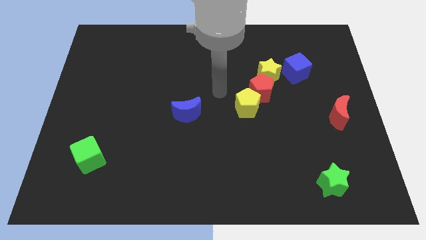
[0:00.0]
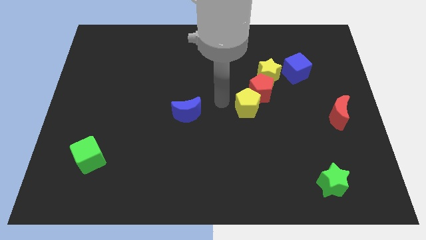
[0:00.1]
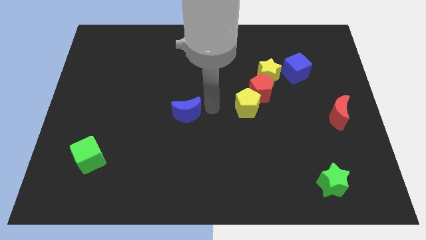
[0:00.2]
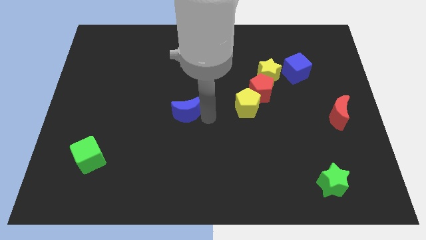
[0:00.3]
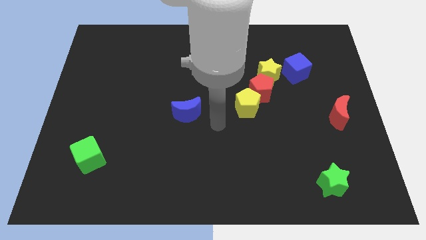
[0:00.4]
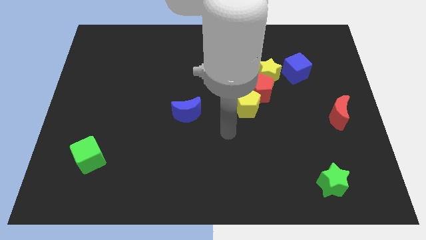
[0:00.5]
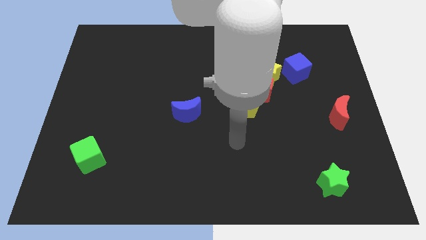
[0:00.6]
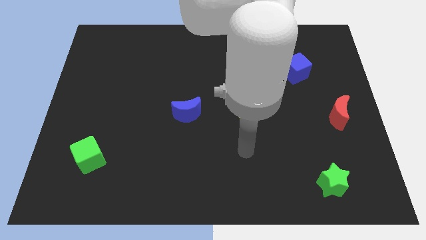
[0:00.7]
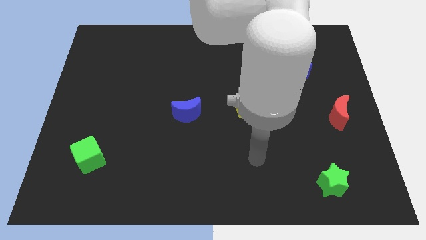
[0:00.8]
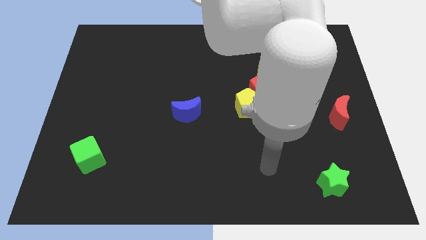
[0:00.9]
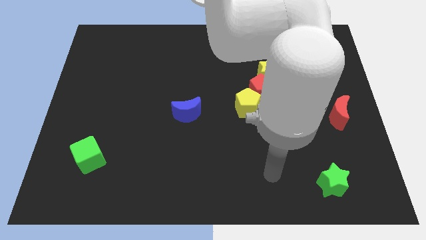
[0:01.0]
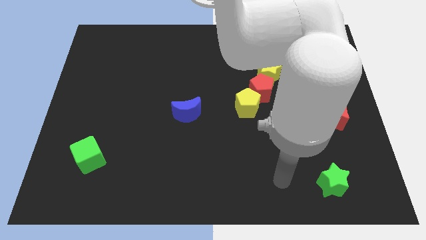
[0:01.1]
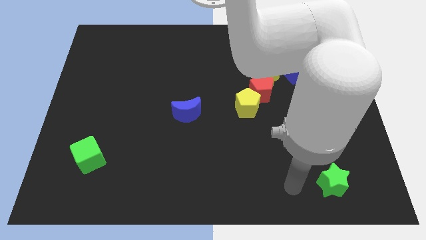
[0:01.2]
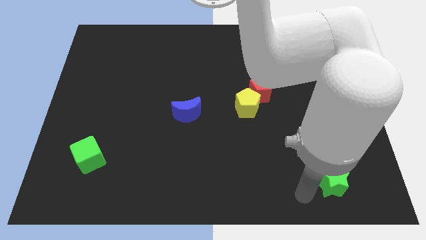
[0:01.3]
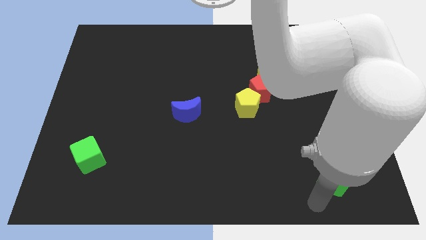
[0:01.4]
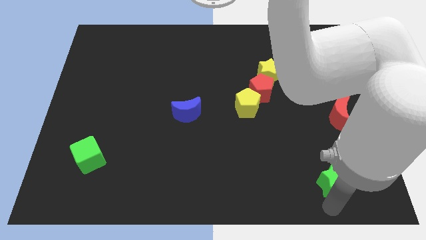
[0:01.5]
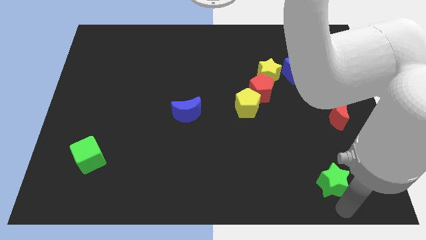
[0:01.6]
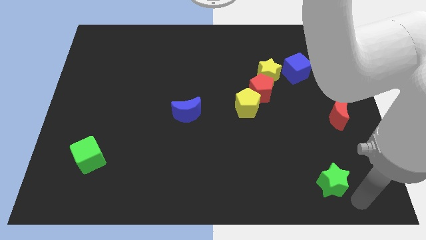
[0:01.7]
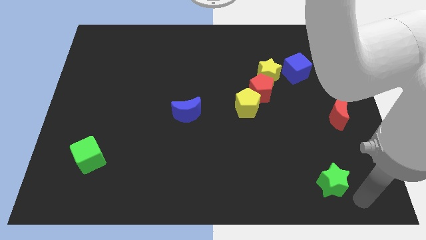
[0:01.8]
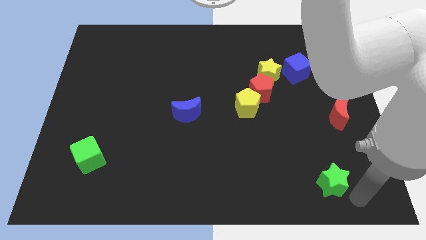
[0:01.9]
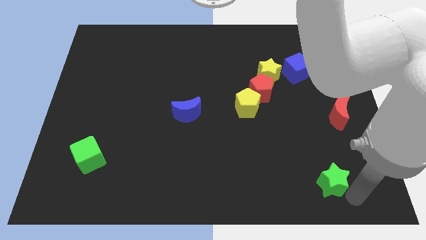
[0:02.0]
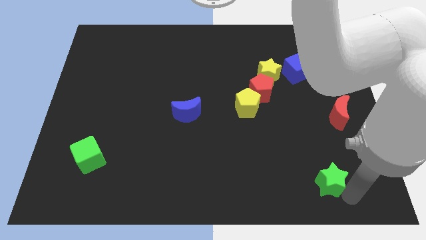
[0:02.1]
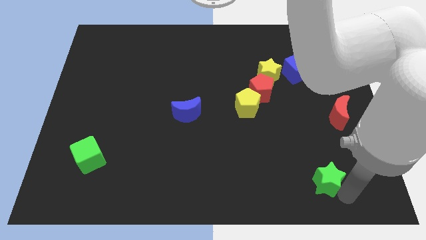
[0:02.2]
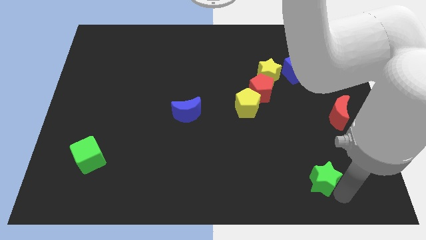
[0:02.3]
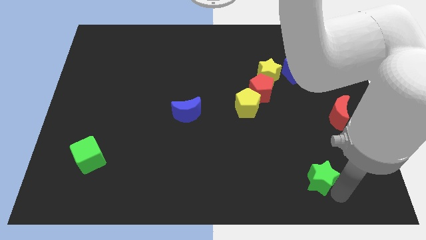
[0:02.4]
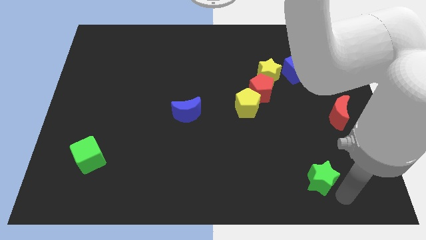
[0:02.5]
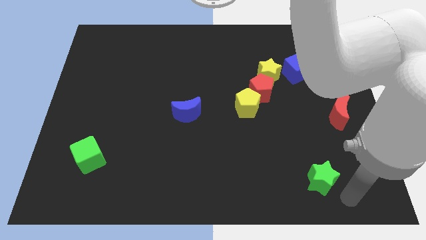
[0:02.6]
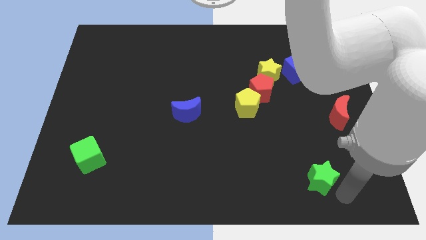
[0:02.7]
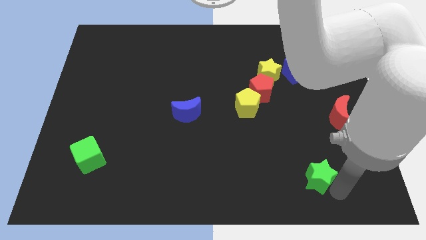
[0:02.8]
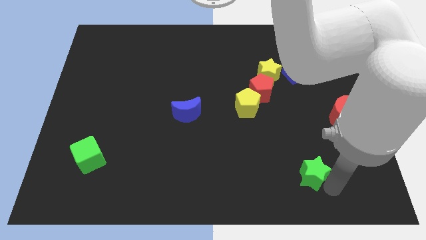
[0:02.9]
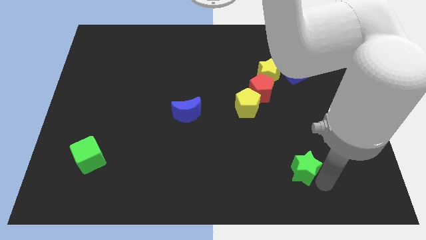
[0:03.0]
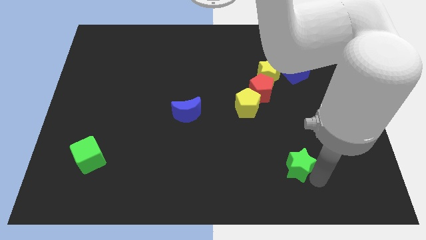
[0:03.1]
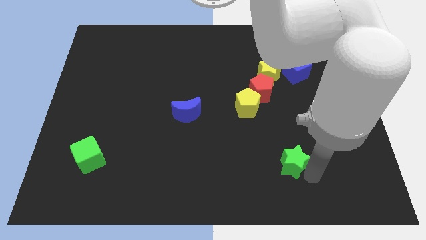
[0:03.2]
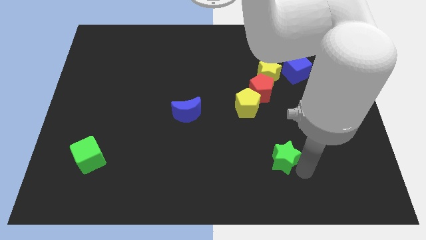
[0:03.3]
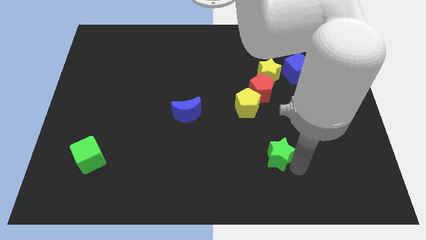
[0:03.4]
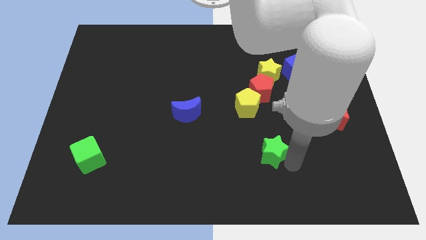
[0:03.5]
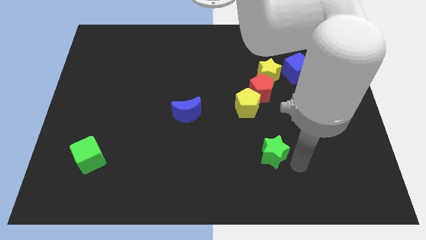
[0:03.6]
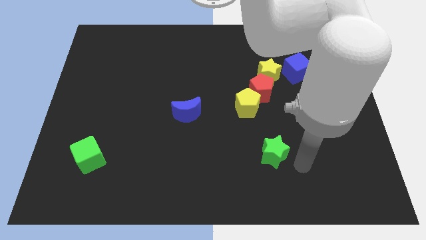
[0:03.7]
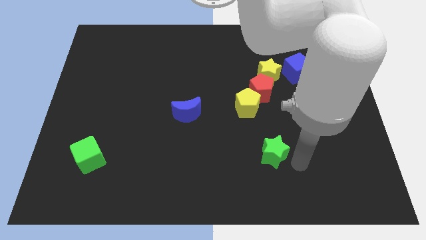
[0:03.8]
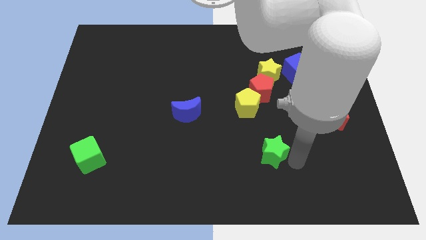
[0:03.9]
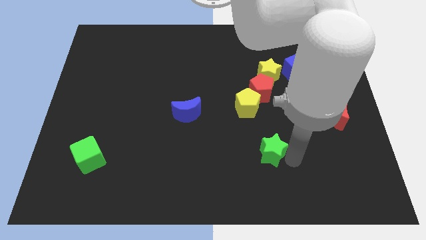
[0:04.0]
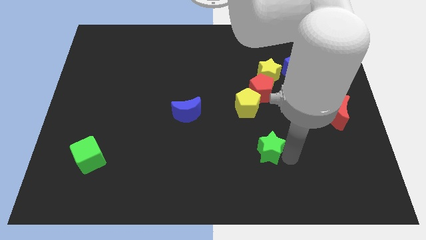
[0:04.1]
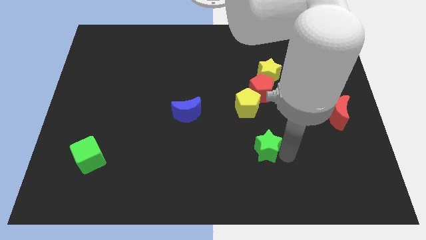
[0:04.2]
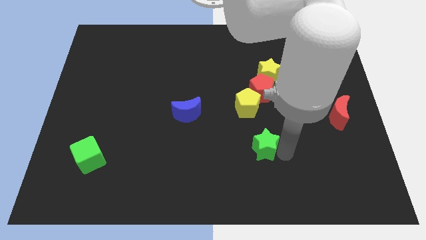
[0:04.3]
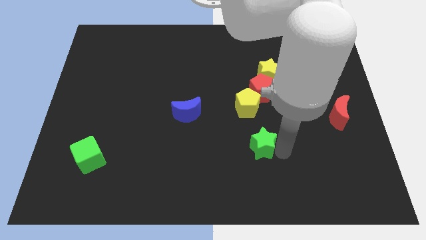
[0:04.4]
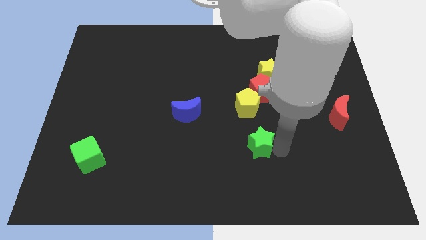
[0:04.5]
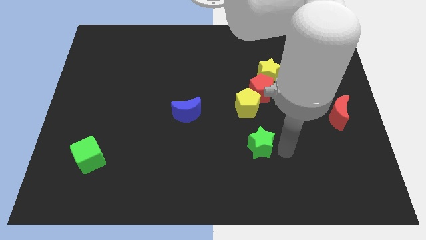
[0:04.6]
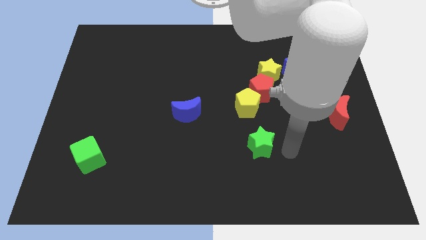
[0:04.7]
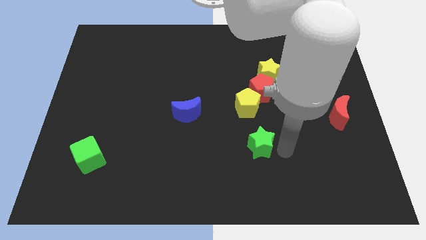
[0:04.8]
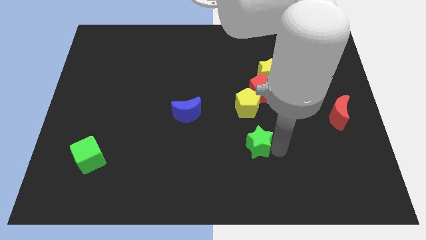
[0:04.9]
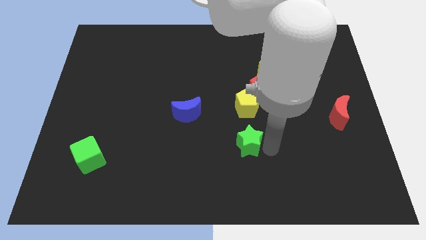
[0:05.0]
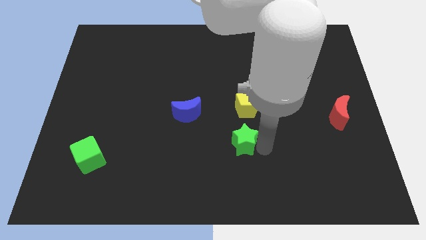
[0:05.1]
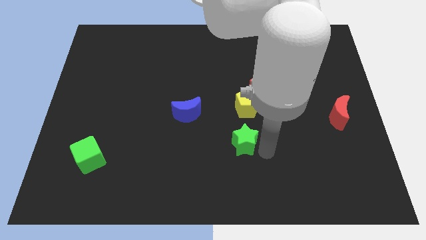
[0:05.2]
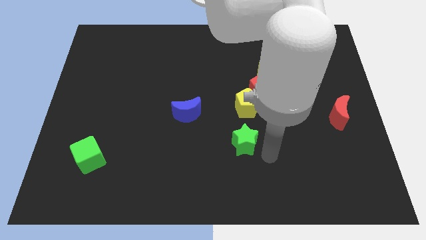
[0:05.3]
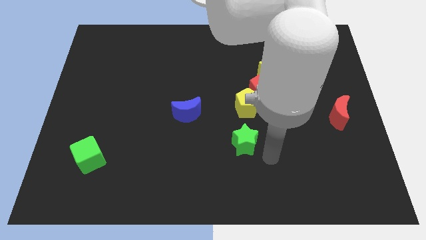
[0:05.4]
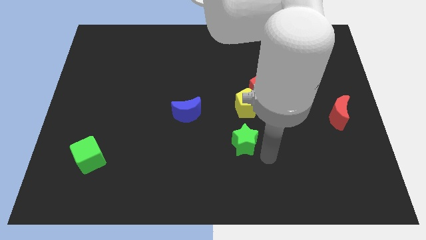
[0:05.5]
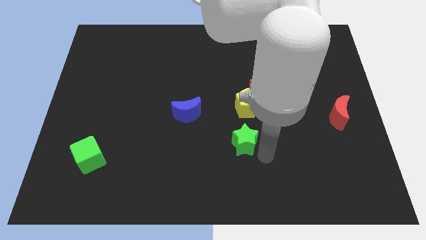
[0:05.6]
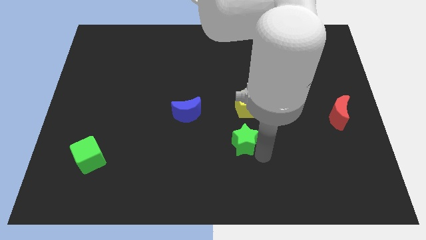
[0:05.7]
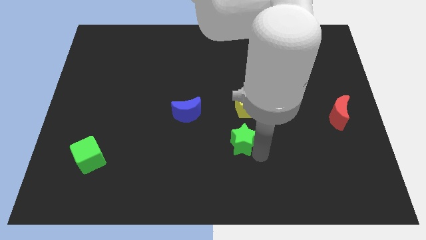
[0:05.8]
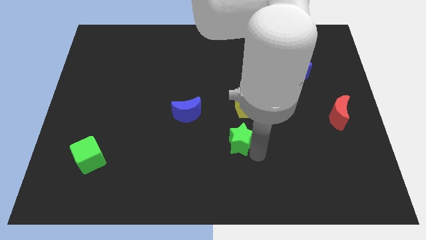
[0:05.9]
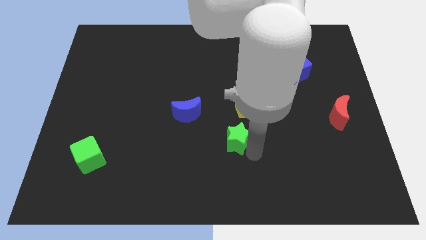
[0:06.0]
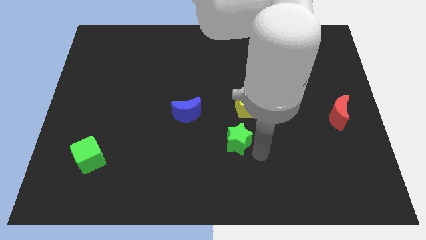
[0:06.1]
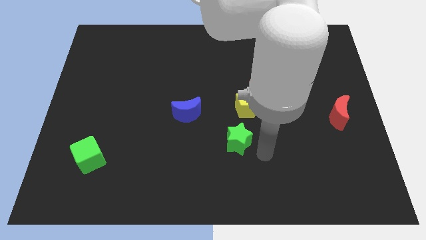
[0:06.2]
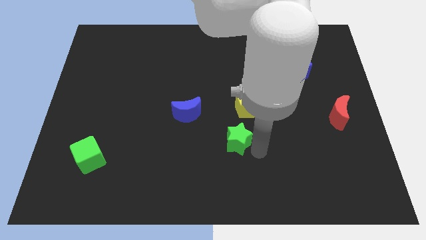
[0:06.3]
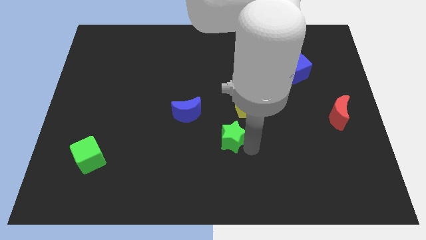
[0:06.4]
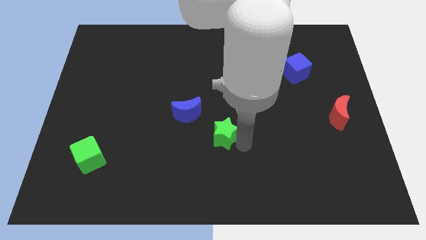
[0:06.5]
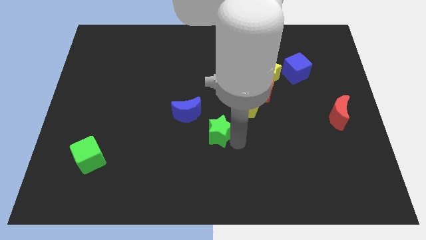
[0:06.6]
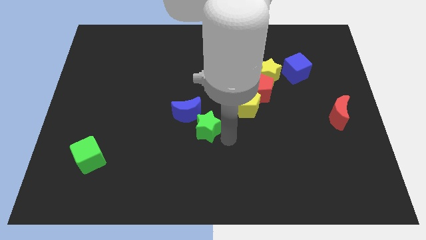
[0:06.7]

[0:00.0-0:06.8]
put the green star next to the blue moon
